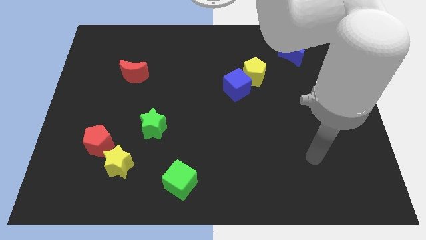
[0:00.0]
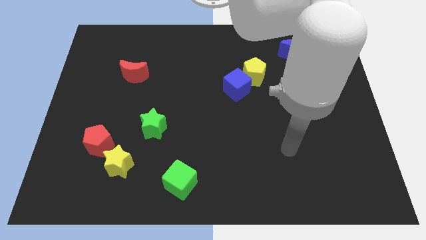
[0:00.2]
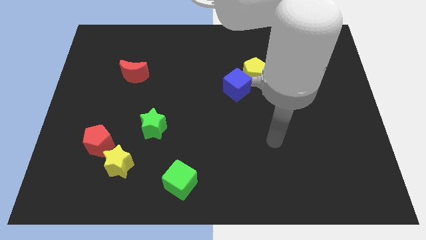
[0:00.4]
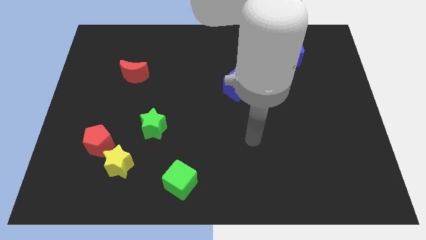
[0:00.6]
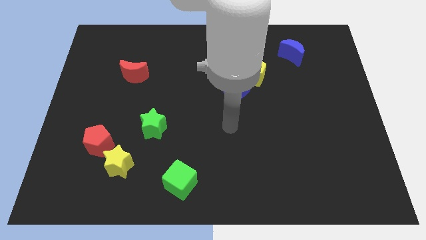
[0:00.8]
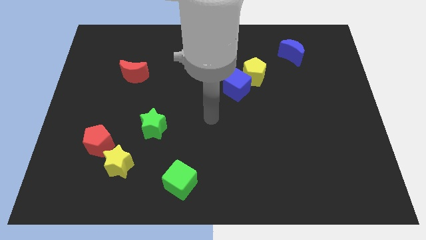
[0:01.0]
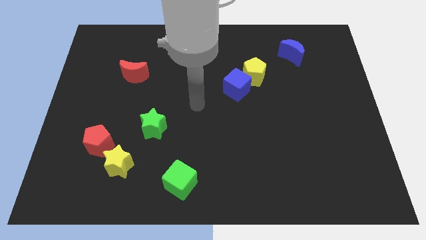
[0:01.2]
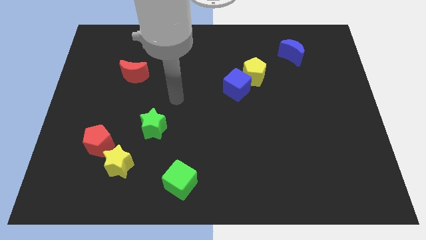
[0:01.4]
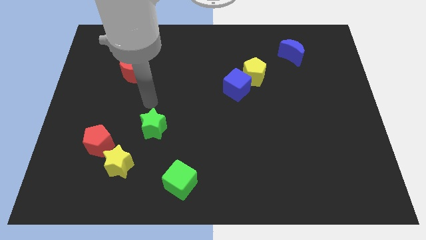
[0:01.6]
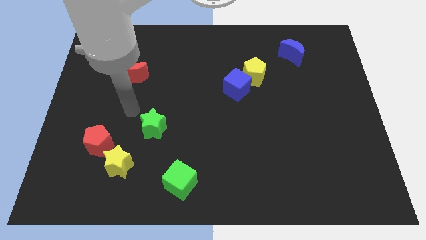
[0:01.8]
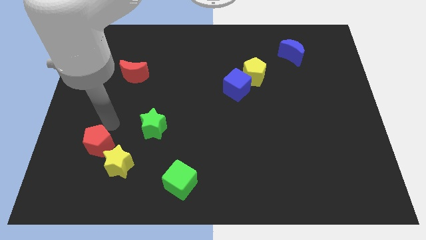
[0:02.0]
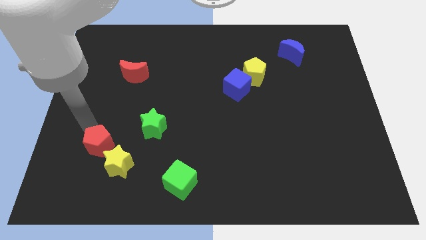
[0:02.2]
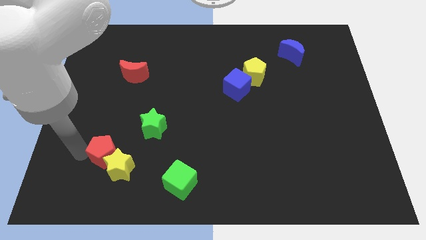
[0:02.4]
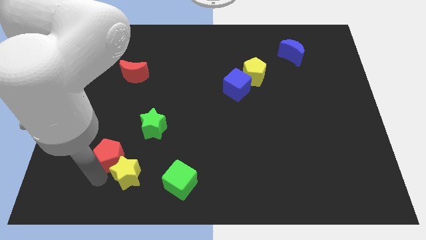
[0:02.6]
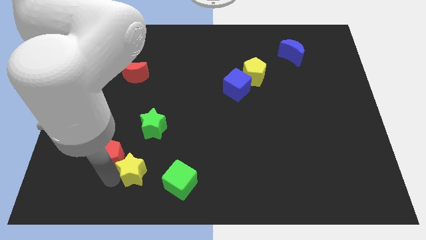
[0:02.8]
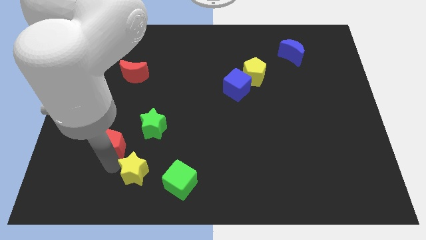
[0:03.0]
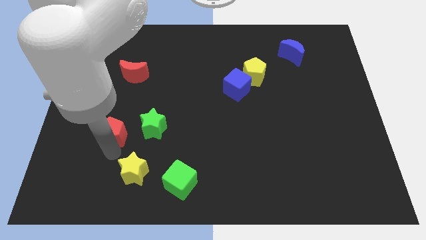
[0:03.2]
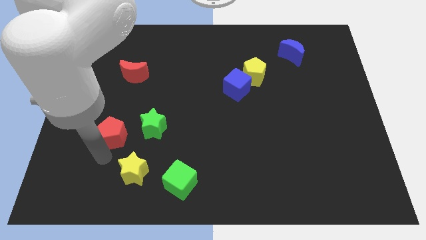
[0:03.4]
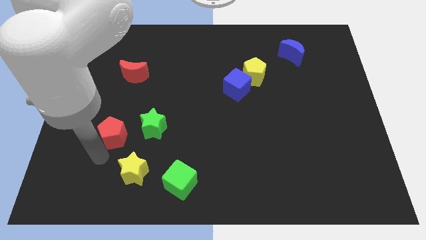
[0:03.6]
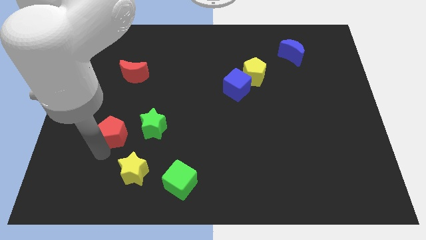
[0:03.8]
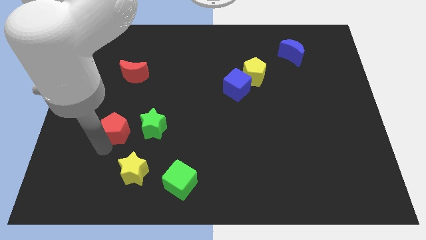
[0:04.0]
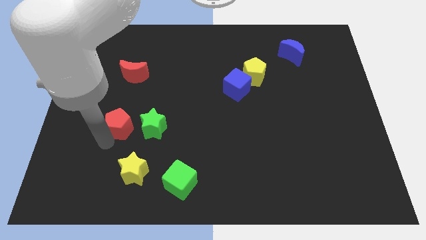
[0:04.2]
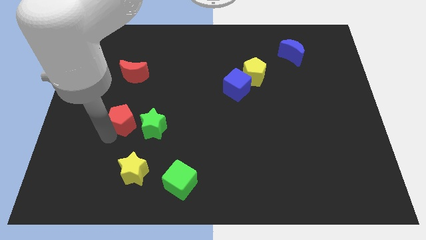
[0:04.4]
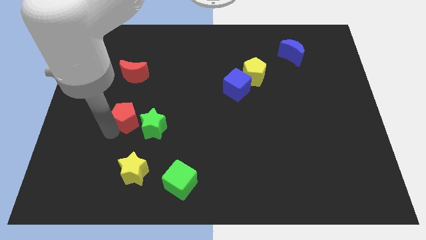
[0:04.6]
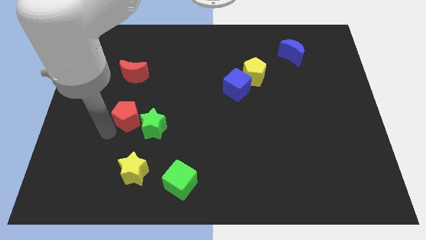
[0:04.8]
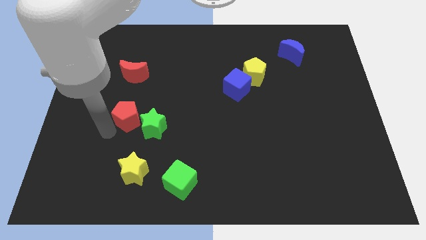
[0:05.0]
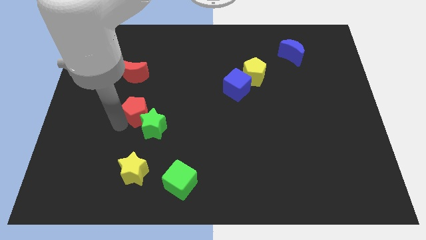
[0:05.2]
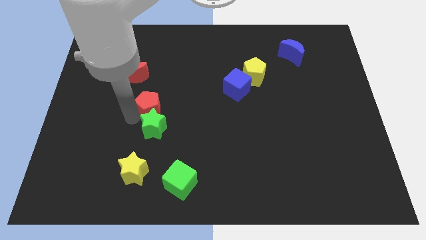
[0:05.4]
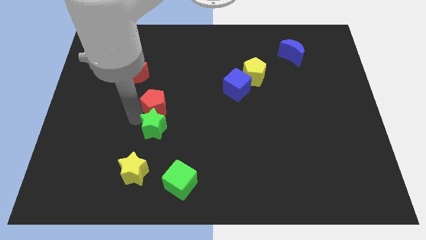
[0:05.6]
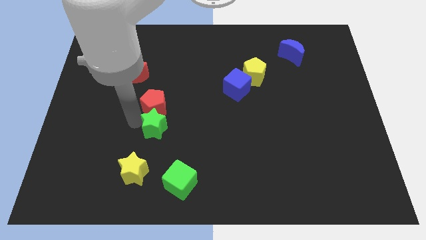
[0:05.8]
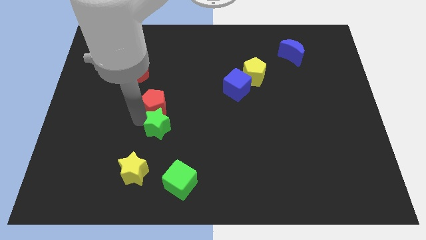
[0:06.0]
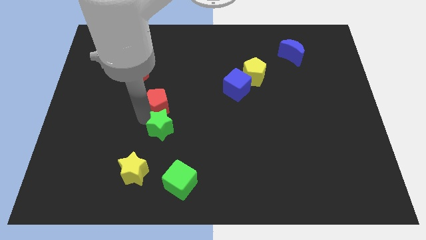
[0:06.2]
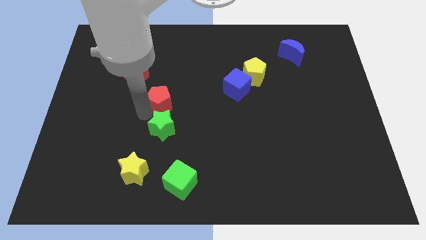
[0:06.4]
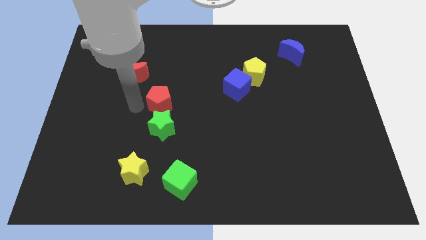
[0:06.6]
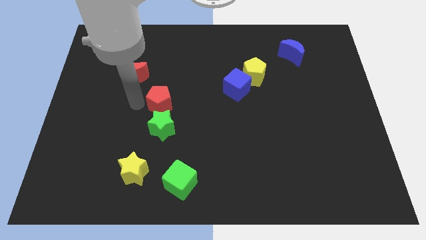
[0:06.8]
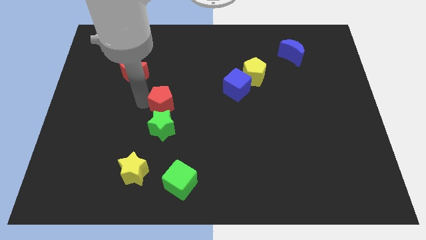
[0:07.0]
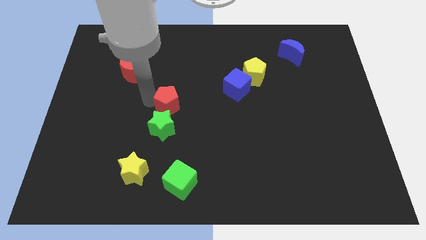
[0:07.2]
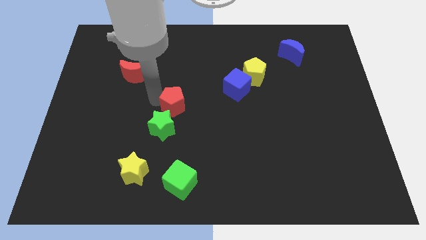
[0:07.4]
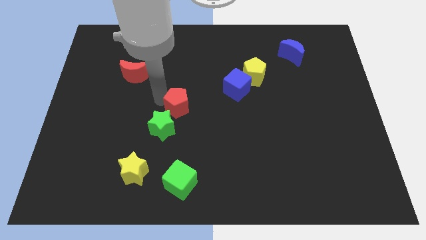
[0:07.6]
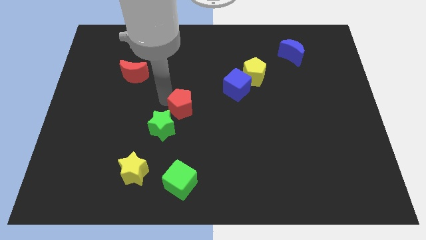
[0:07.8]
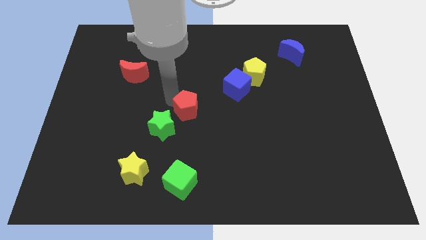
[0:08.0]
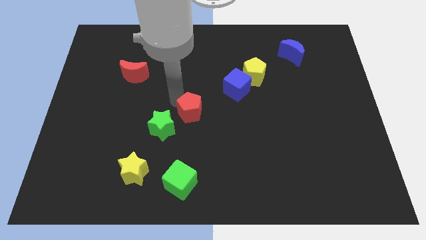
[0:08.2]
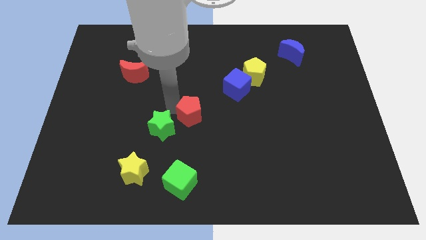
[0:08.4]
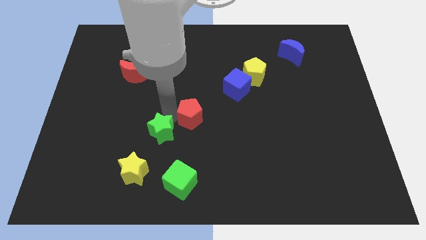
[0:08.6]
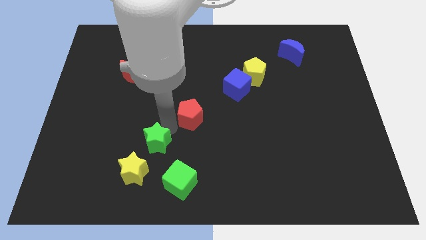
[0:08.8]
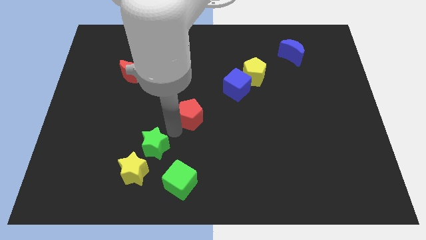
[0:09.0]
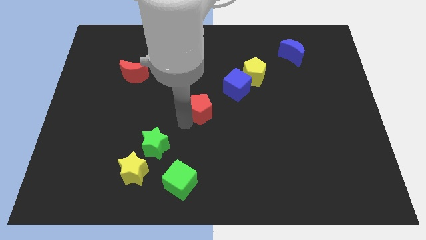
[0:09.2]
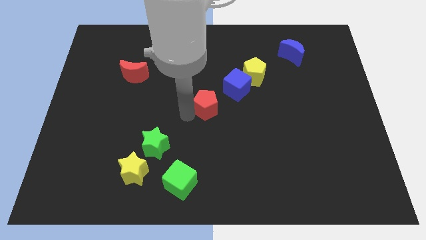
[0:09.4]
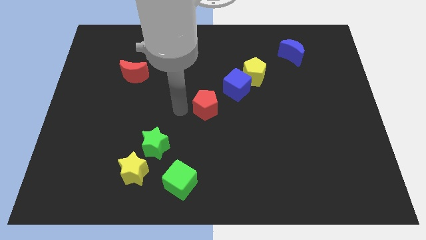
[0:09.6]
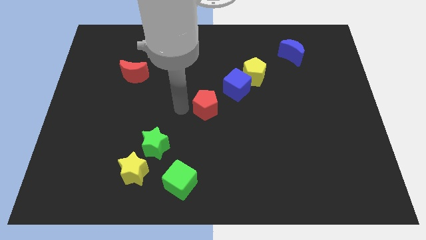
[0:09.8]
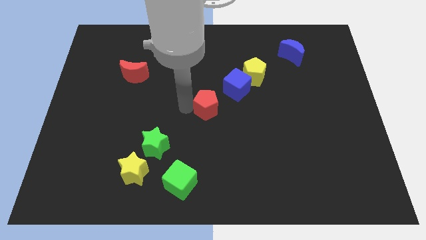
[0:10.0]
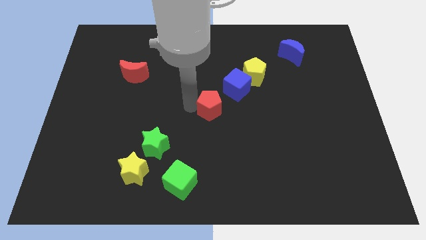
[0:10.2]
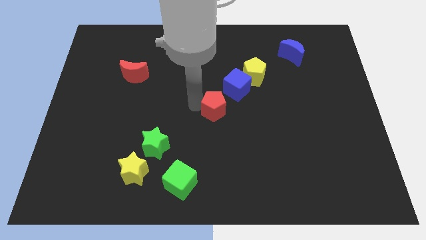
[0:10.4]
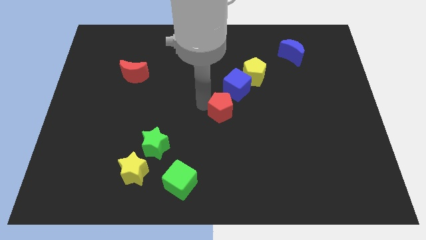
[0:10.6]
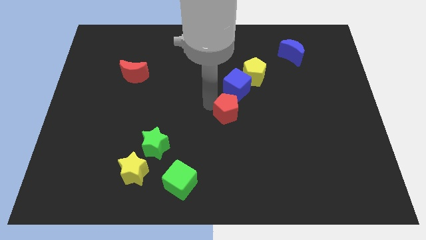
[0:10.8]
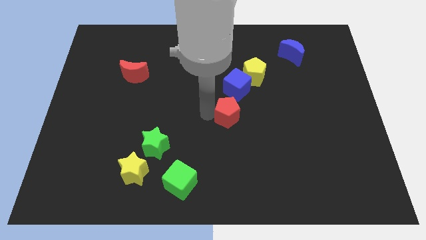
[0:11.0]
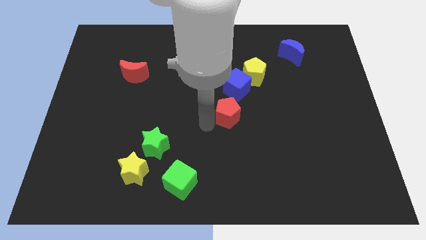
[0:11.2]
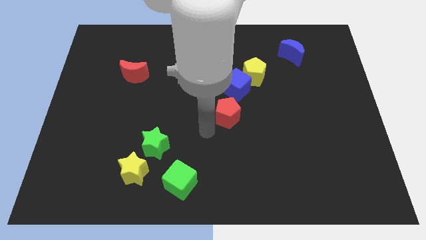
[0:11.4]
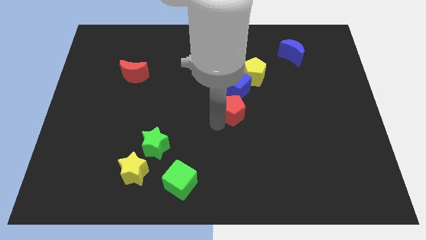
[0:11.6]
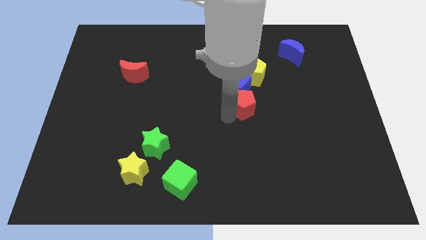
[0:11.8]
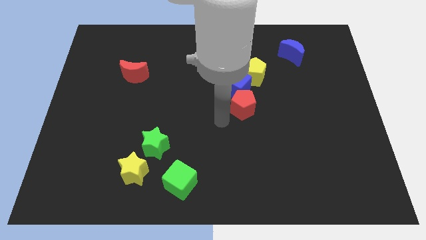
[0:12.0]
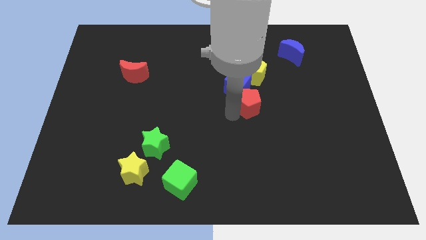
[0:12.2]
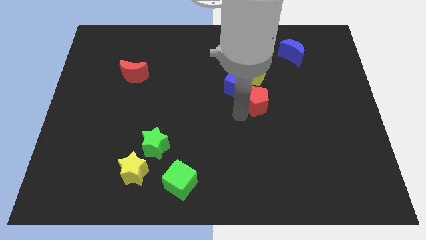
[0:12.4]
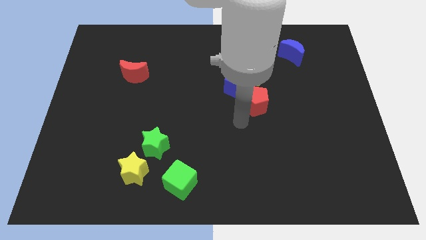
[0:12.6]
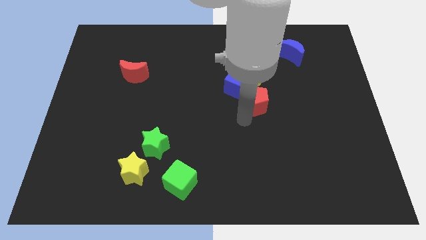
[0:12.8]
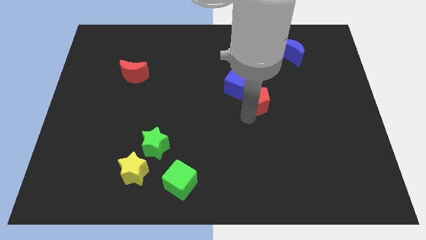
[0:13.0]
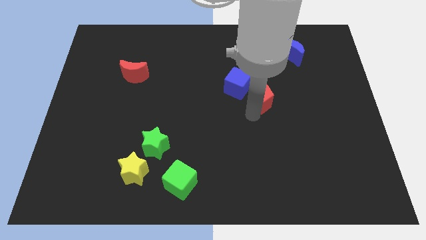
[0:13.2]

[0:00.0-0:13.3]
slide the red pentagon to the right of the blue cube

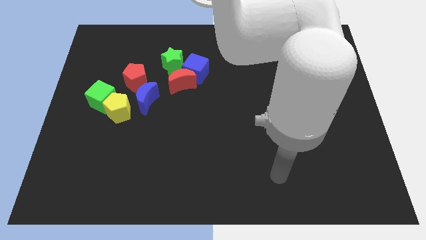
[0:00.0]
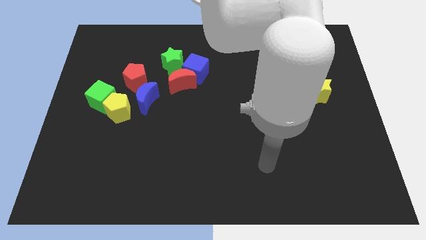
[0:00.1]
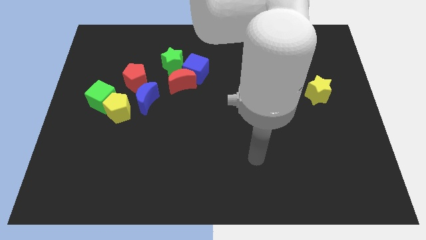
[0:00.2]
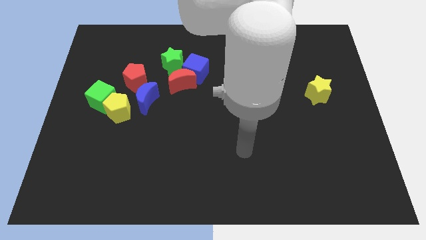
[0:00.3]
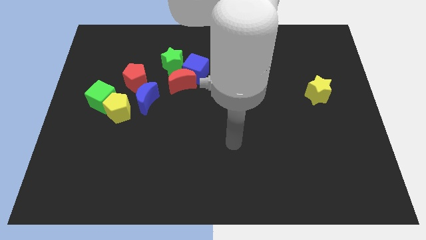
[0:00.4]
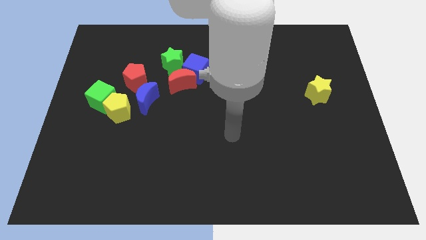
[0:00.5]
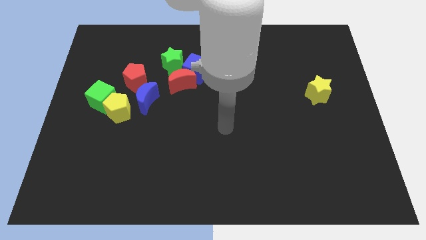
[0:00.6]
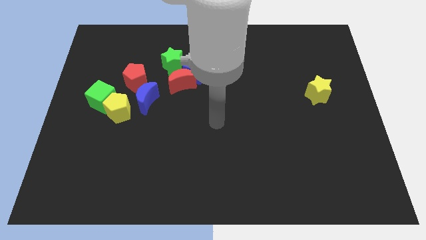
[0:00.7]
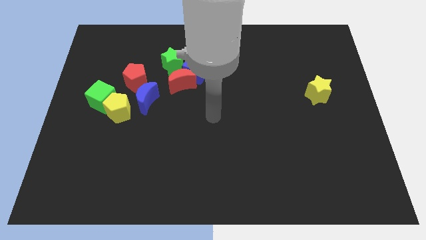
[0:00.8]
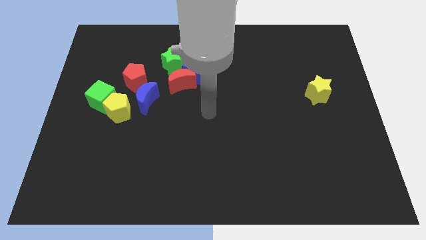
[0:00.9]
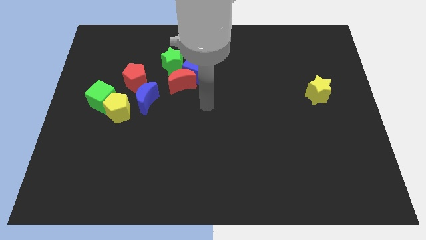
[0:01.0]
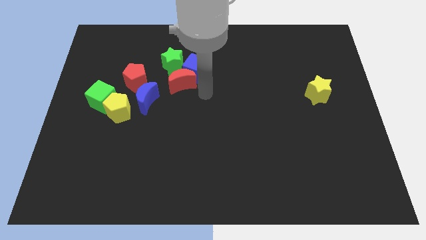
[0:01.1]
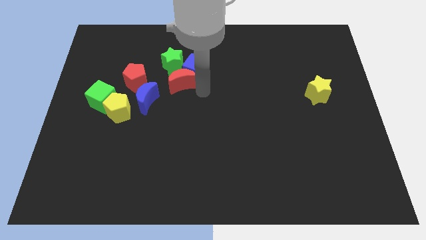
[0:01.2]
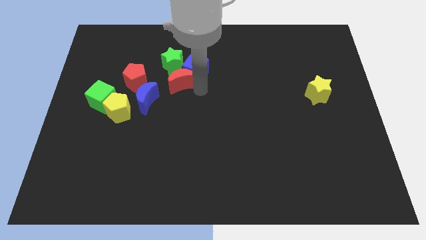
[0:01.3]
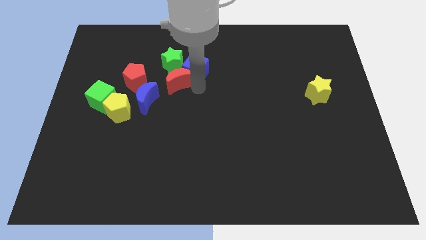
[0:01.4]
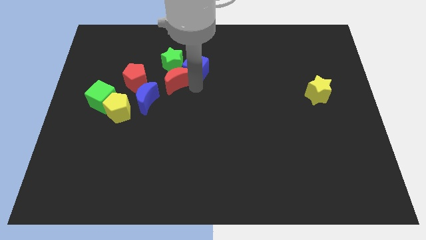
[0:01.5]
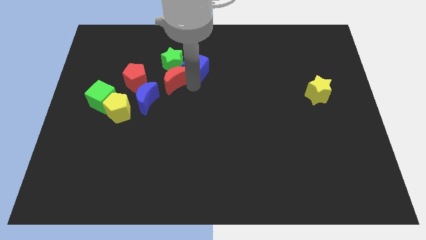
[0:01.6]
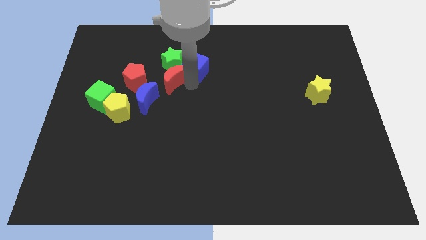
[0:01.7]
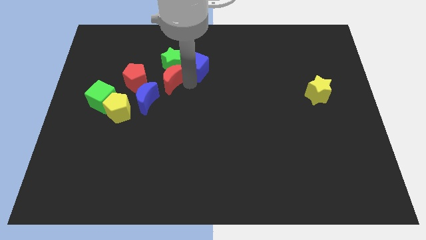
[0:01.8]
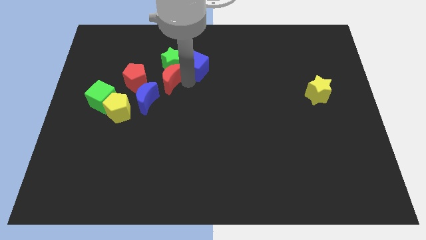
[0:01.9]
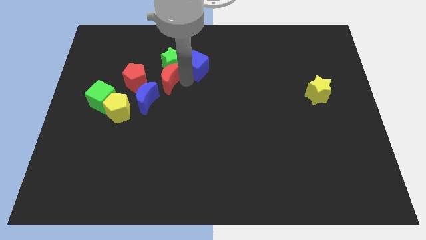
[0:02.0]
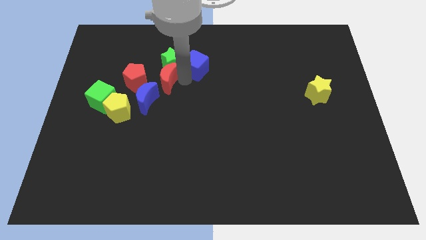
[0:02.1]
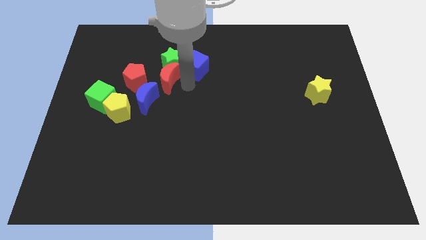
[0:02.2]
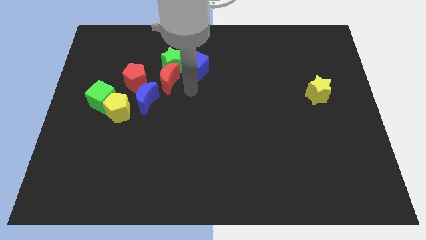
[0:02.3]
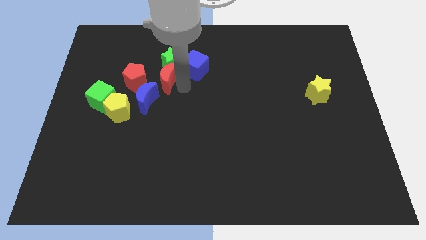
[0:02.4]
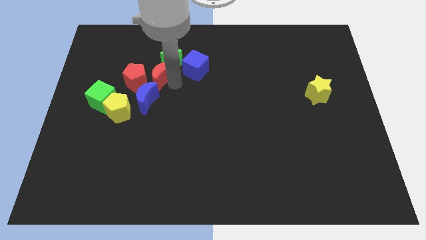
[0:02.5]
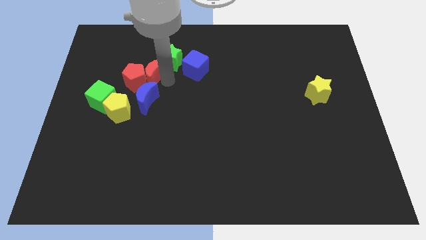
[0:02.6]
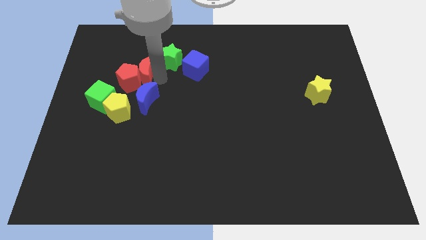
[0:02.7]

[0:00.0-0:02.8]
put the red moon to the left of the green star
